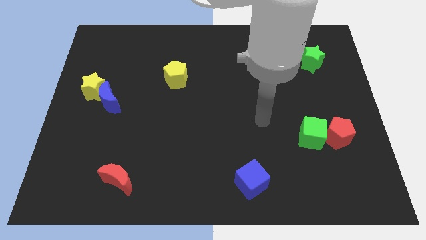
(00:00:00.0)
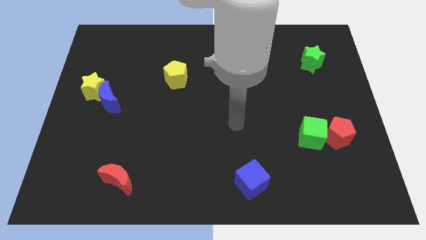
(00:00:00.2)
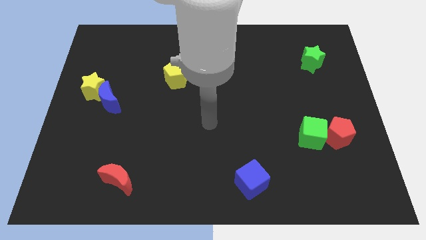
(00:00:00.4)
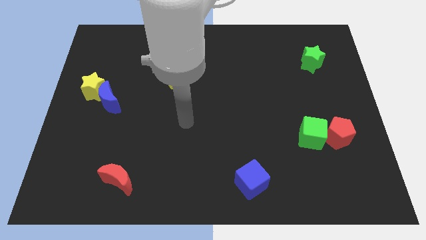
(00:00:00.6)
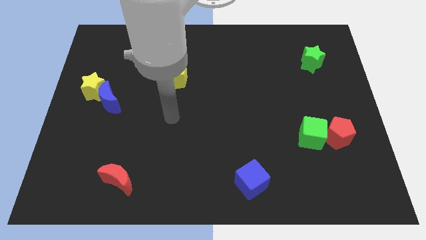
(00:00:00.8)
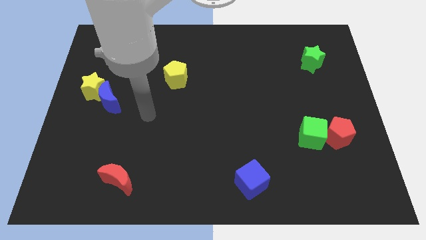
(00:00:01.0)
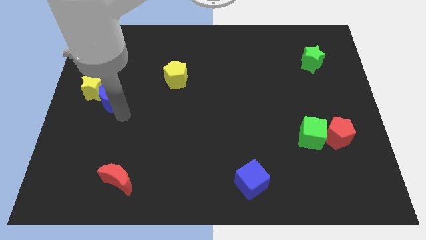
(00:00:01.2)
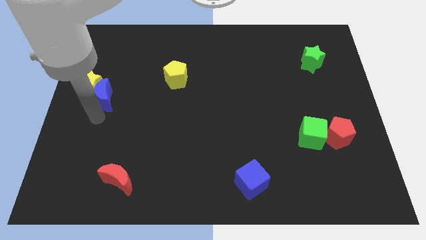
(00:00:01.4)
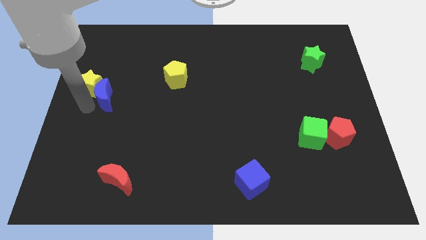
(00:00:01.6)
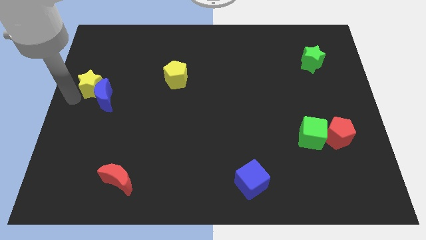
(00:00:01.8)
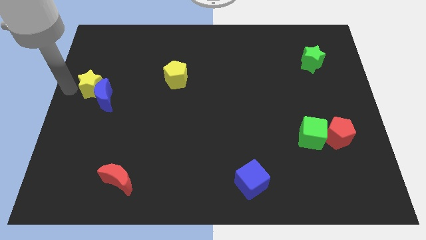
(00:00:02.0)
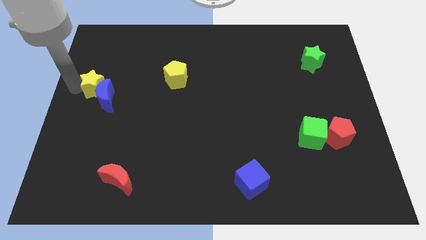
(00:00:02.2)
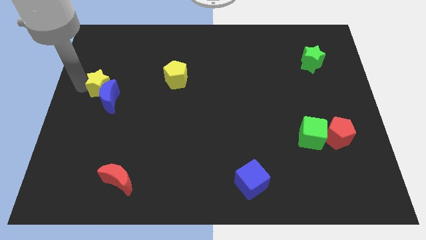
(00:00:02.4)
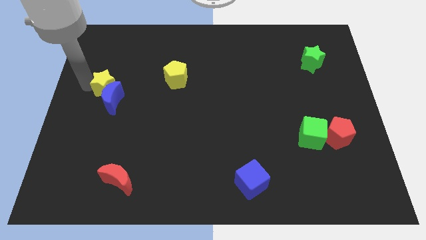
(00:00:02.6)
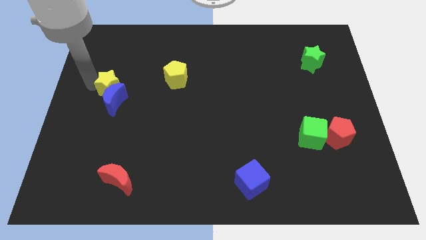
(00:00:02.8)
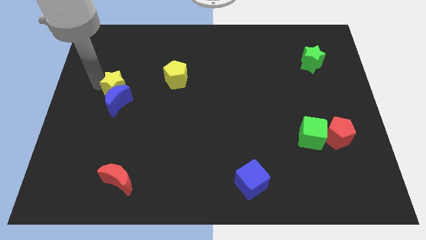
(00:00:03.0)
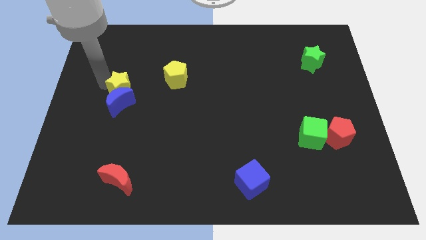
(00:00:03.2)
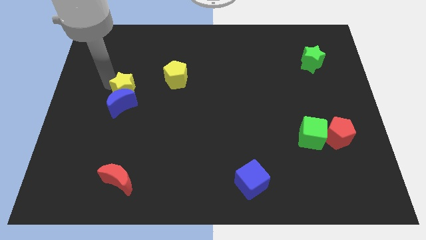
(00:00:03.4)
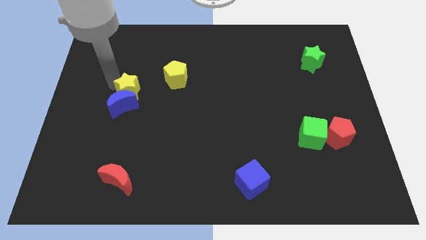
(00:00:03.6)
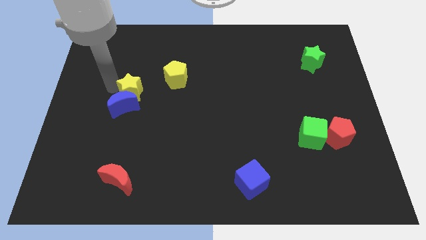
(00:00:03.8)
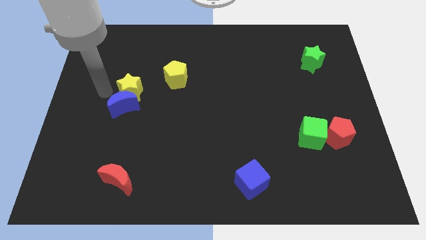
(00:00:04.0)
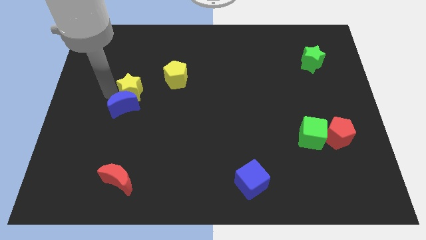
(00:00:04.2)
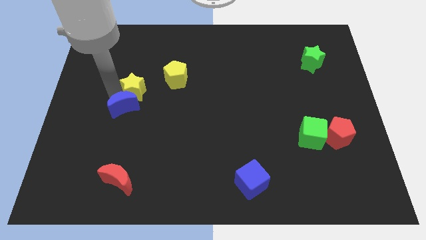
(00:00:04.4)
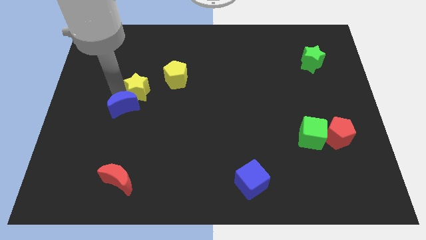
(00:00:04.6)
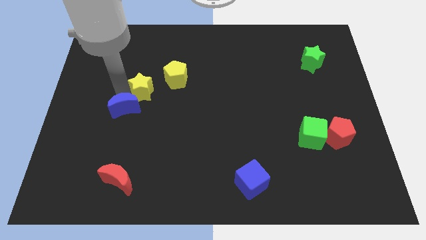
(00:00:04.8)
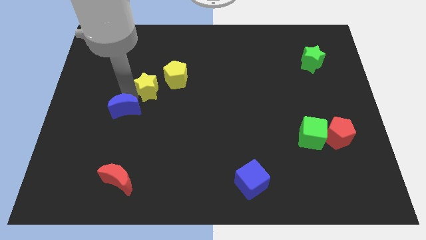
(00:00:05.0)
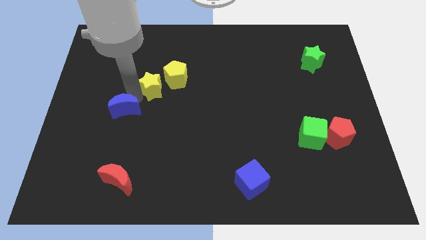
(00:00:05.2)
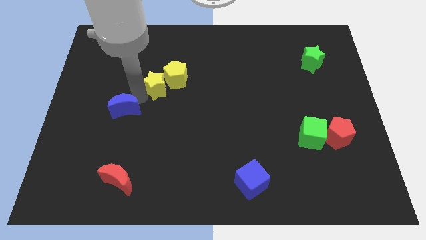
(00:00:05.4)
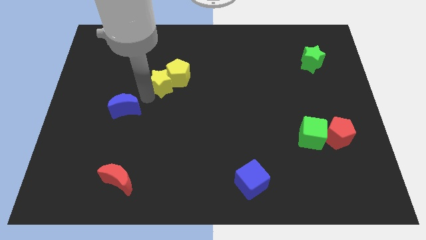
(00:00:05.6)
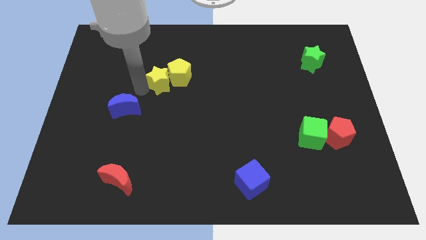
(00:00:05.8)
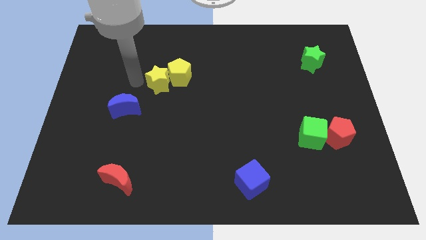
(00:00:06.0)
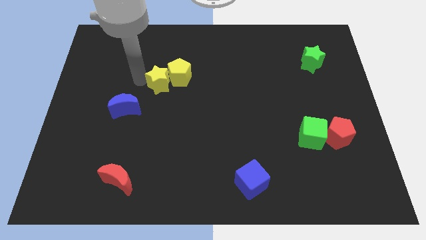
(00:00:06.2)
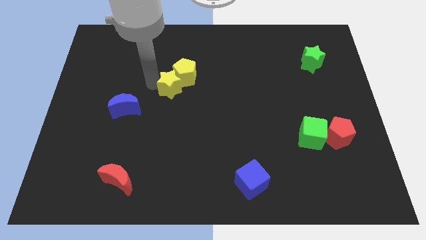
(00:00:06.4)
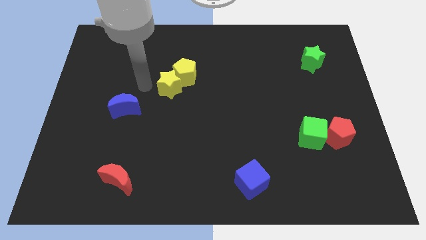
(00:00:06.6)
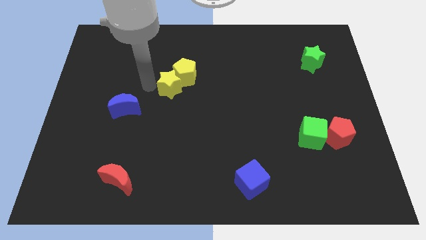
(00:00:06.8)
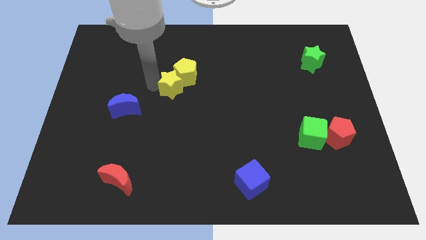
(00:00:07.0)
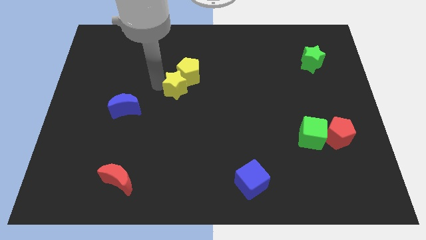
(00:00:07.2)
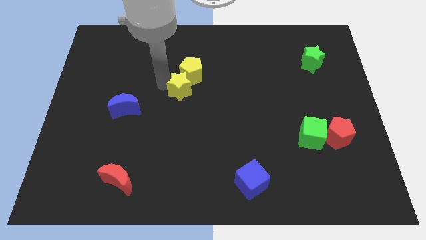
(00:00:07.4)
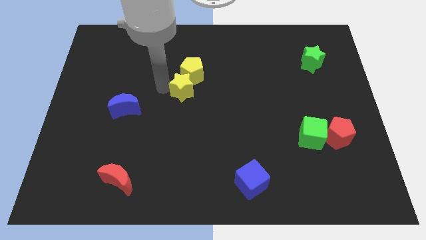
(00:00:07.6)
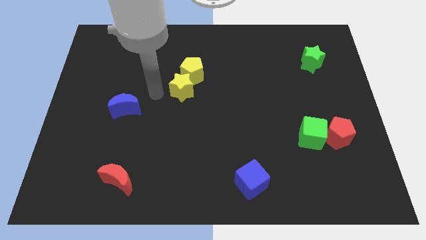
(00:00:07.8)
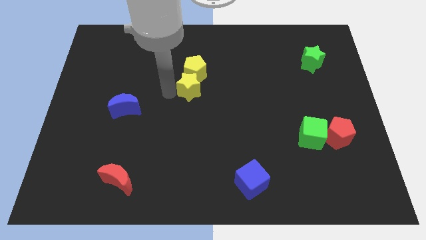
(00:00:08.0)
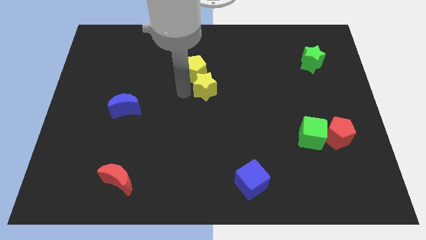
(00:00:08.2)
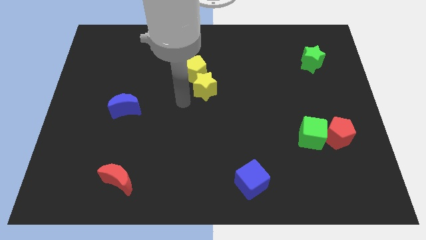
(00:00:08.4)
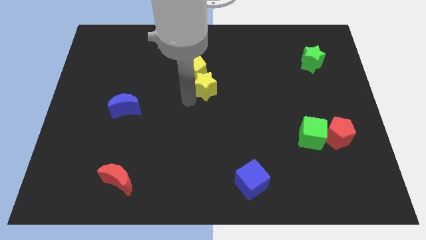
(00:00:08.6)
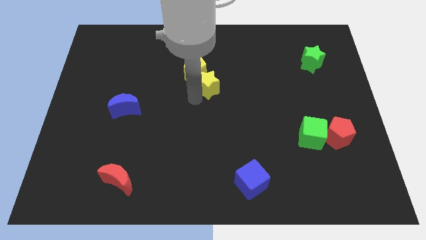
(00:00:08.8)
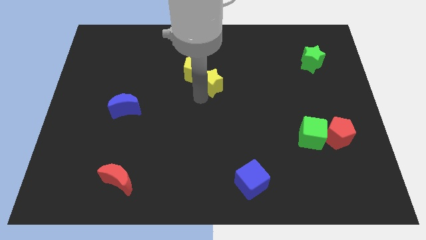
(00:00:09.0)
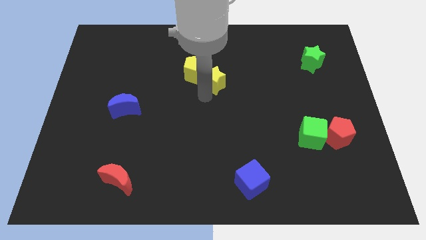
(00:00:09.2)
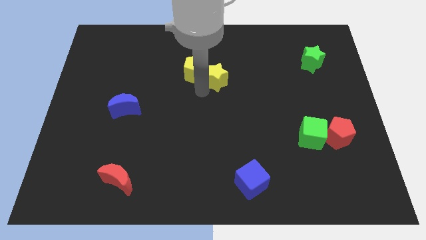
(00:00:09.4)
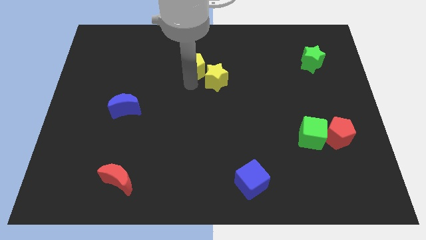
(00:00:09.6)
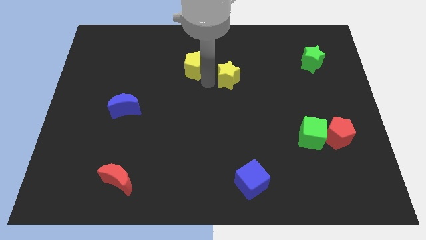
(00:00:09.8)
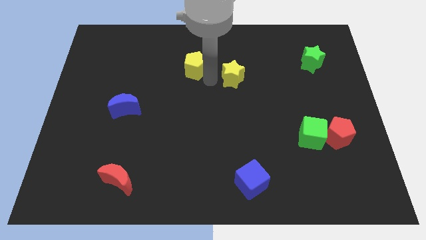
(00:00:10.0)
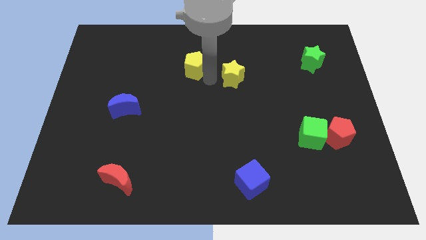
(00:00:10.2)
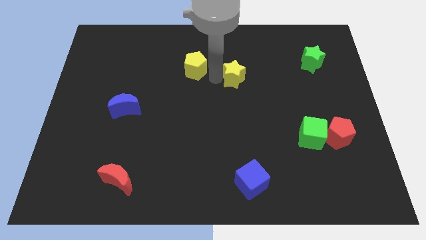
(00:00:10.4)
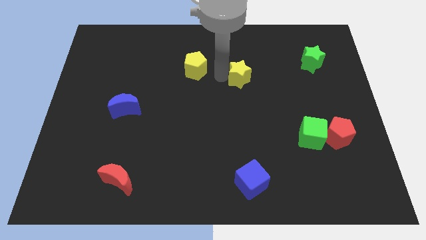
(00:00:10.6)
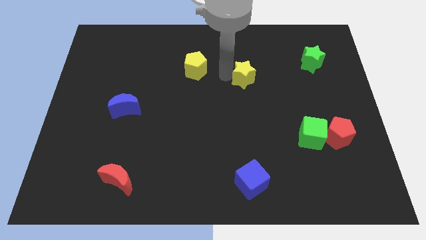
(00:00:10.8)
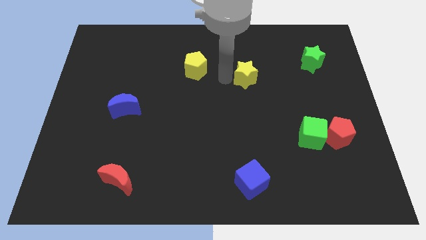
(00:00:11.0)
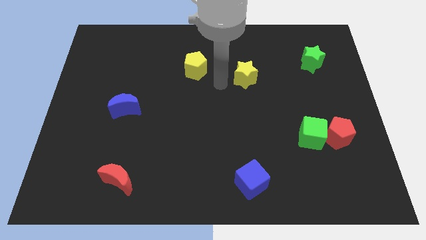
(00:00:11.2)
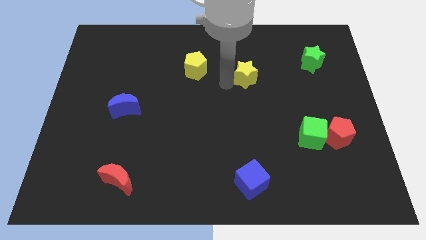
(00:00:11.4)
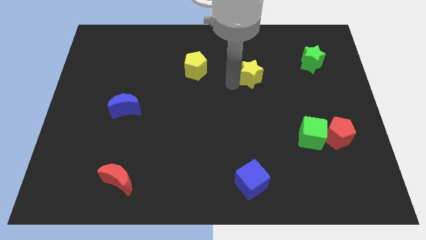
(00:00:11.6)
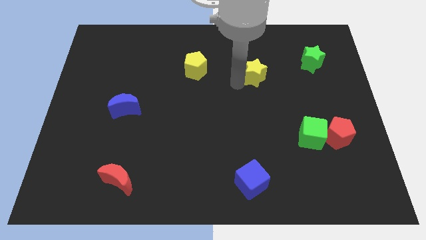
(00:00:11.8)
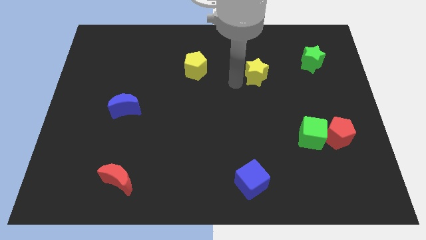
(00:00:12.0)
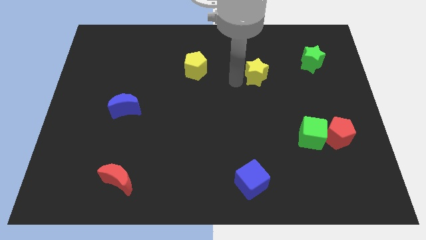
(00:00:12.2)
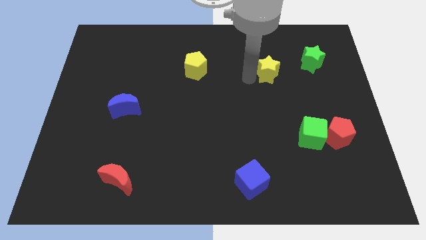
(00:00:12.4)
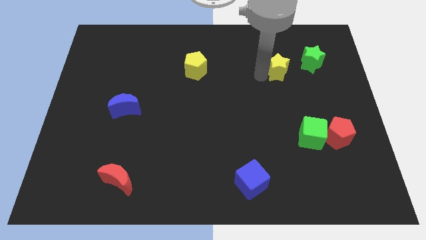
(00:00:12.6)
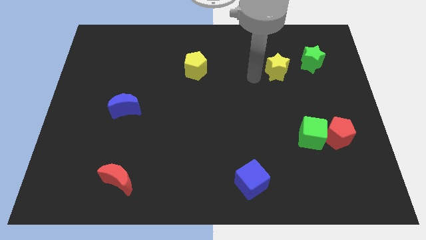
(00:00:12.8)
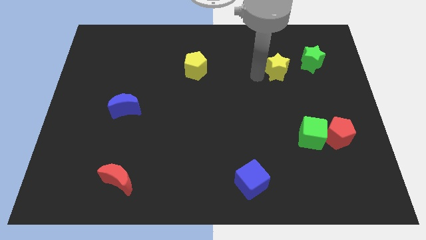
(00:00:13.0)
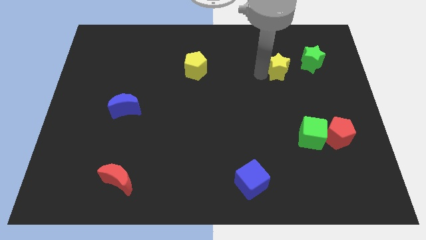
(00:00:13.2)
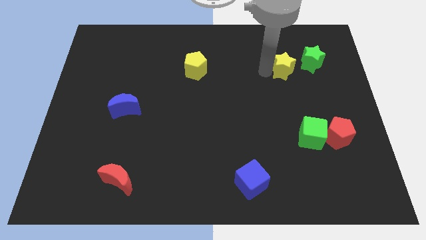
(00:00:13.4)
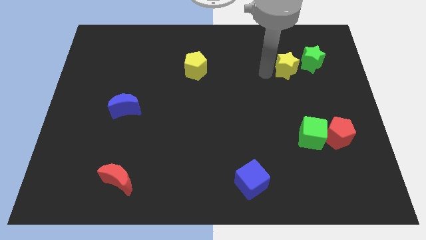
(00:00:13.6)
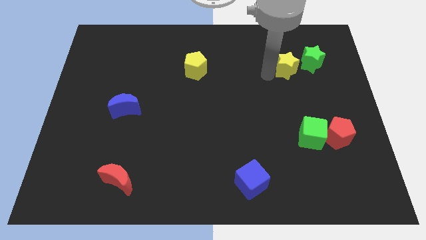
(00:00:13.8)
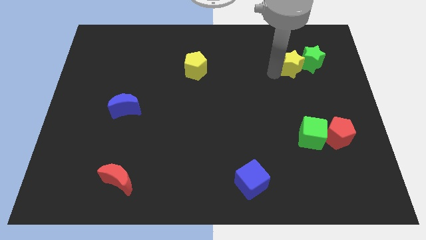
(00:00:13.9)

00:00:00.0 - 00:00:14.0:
push the yellow star next to the green star

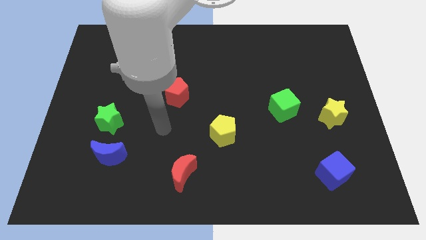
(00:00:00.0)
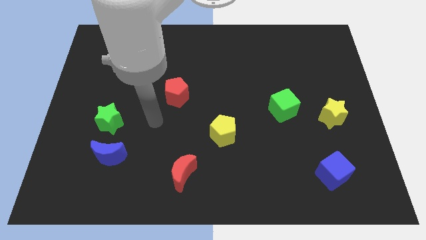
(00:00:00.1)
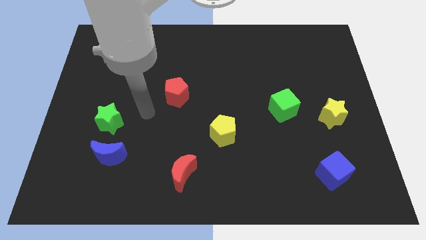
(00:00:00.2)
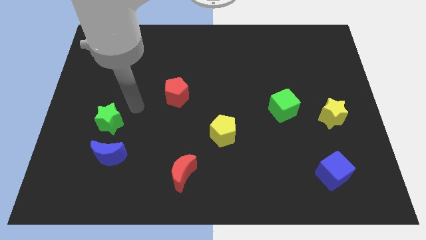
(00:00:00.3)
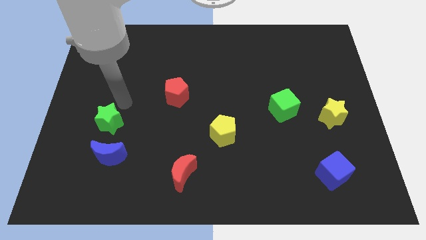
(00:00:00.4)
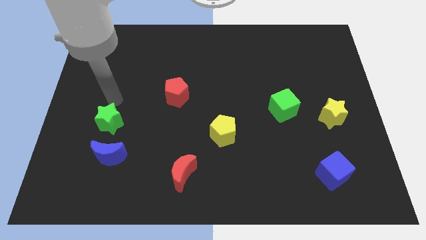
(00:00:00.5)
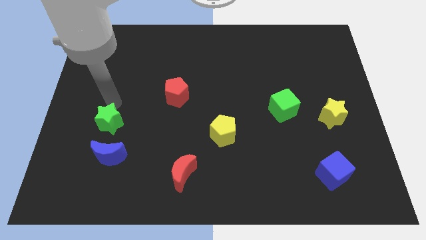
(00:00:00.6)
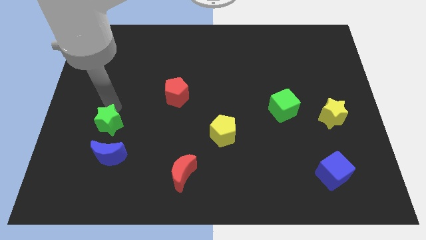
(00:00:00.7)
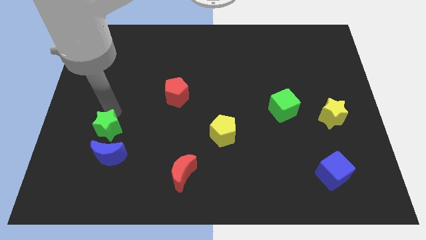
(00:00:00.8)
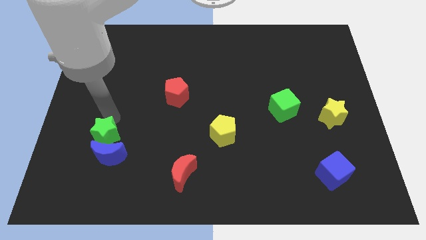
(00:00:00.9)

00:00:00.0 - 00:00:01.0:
push the green star next to the blue moon
